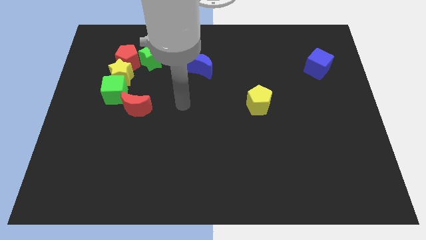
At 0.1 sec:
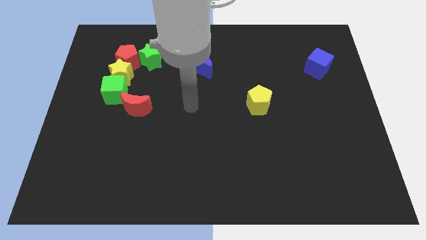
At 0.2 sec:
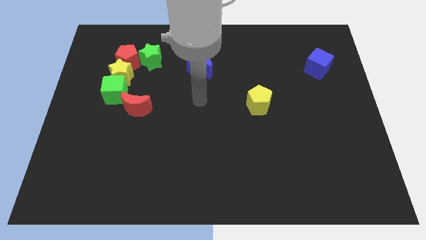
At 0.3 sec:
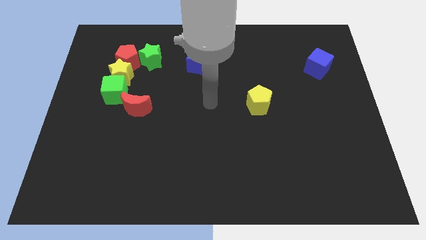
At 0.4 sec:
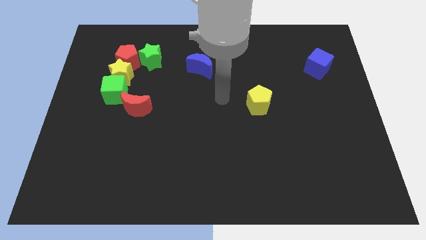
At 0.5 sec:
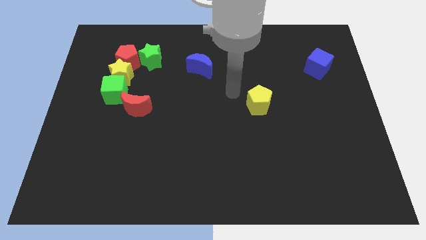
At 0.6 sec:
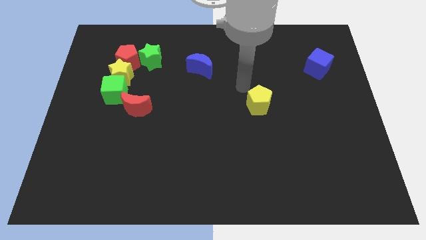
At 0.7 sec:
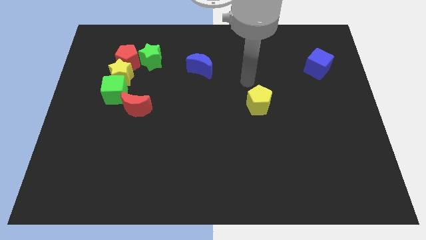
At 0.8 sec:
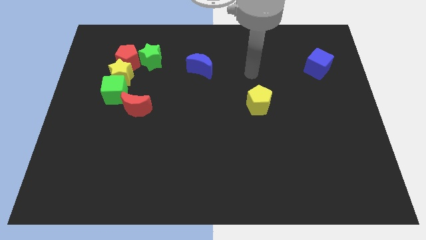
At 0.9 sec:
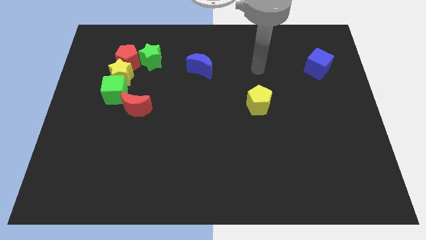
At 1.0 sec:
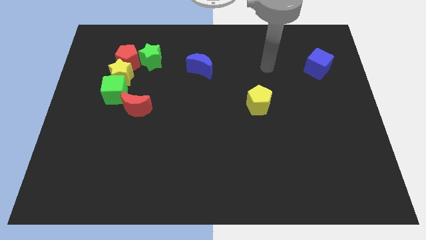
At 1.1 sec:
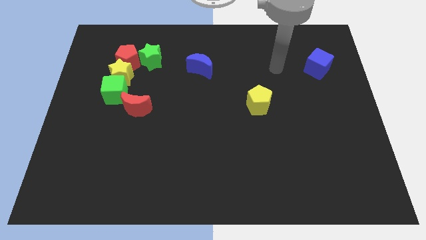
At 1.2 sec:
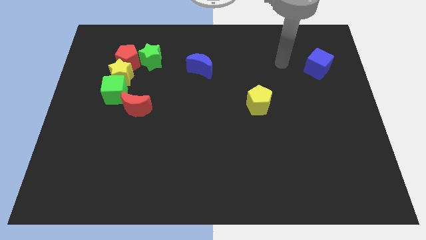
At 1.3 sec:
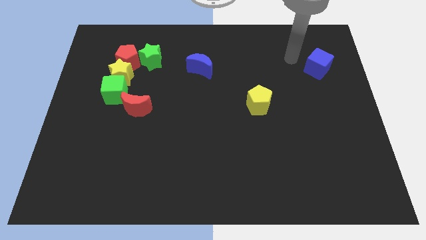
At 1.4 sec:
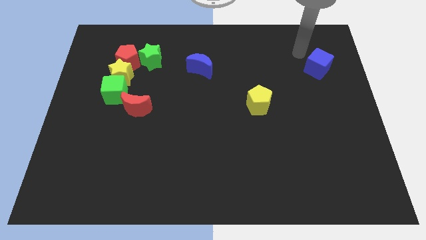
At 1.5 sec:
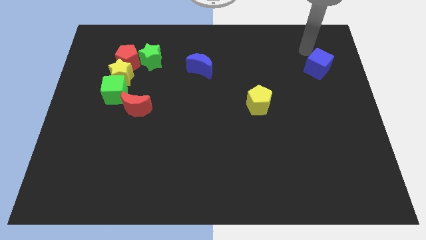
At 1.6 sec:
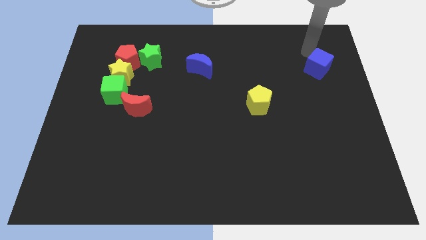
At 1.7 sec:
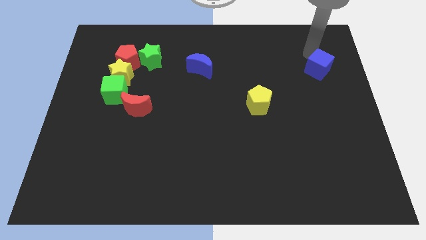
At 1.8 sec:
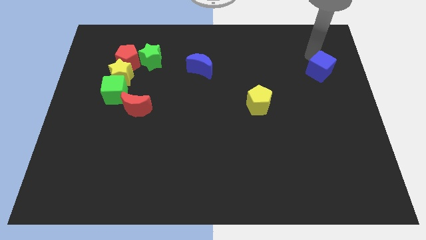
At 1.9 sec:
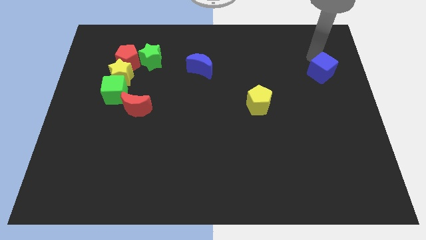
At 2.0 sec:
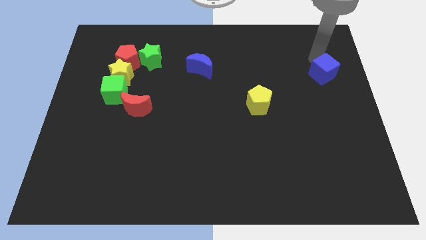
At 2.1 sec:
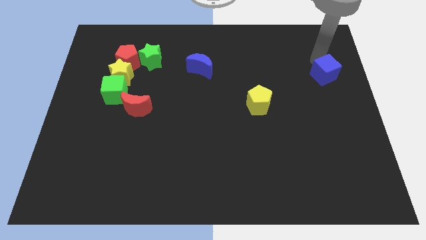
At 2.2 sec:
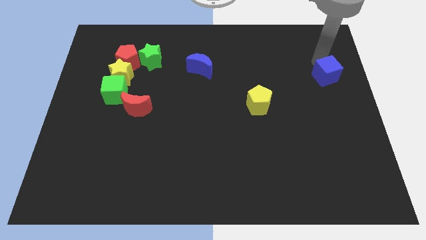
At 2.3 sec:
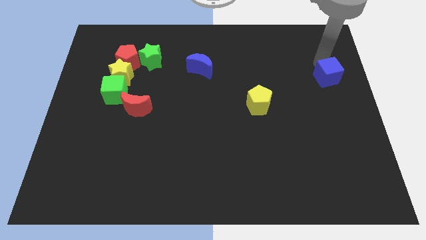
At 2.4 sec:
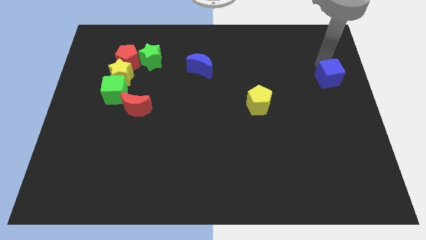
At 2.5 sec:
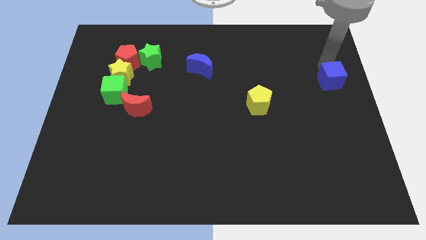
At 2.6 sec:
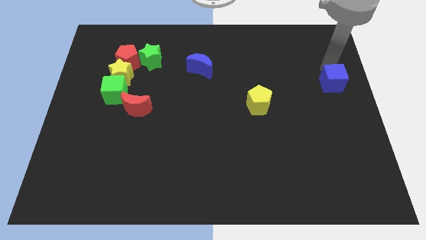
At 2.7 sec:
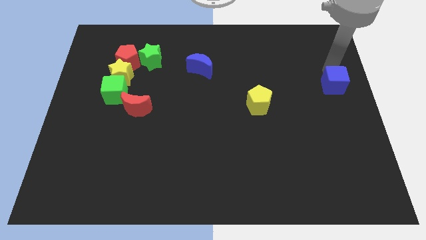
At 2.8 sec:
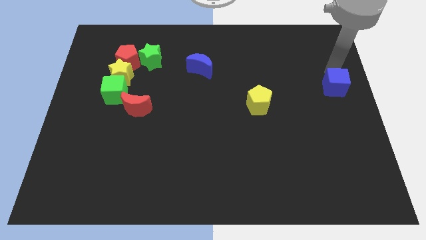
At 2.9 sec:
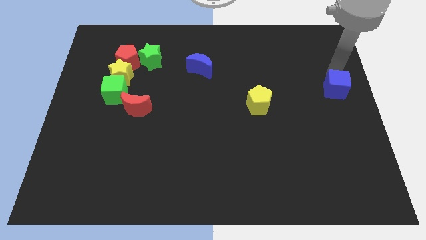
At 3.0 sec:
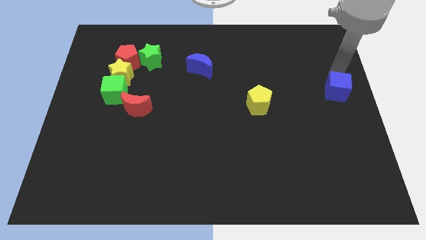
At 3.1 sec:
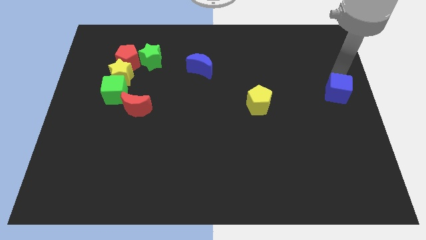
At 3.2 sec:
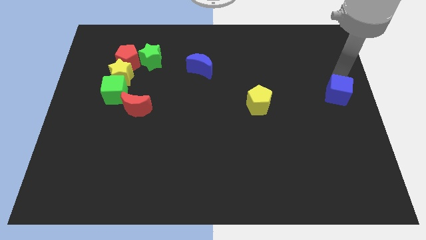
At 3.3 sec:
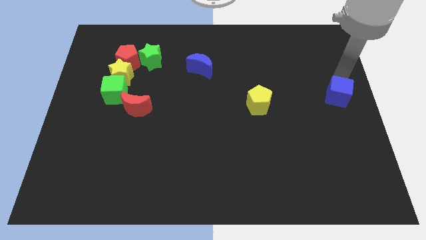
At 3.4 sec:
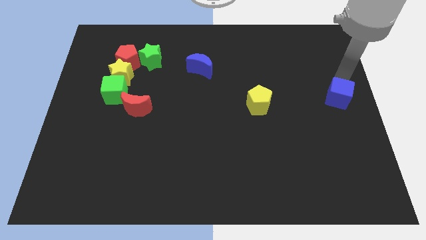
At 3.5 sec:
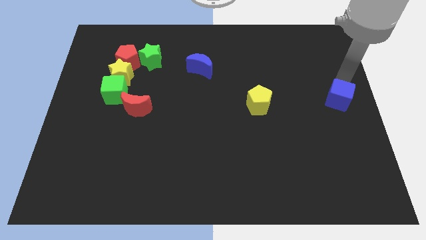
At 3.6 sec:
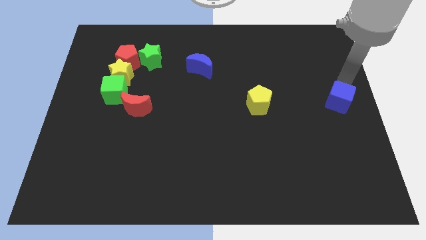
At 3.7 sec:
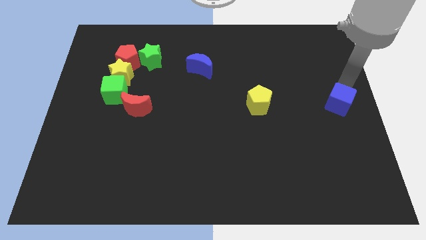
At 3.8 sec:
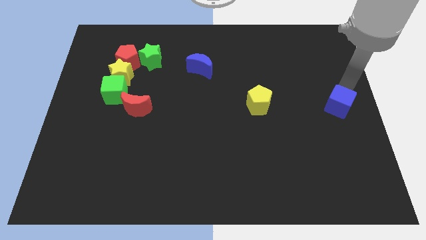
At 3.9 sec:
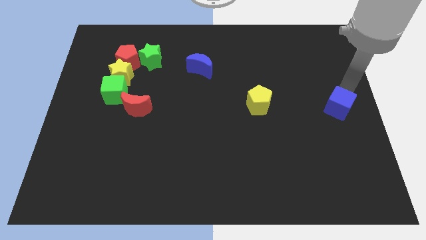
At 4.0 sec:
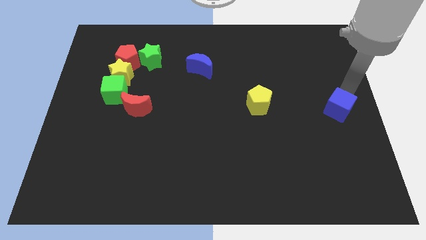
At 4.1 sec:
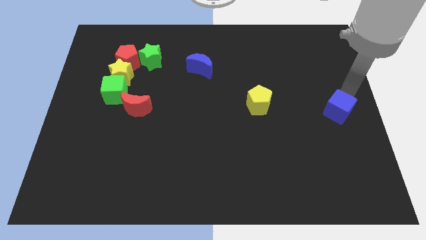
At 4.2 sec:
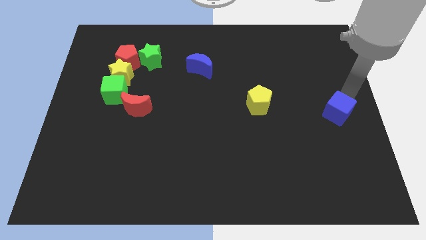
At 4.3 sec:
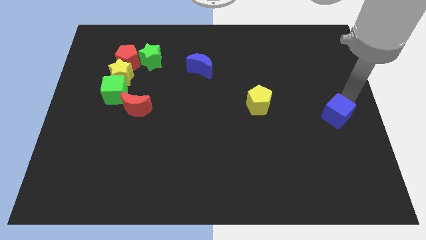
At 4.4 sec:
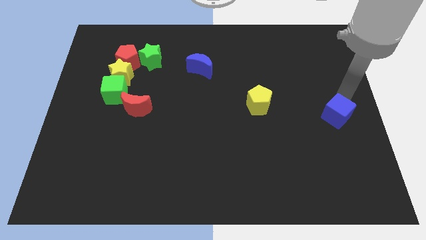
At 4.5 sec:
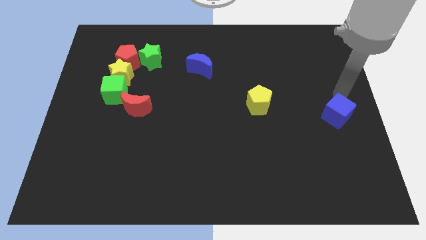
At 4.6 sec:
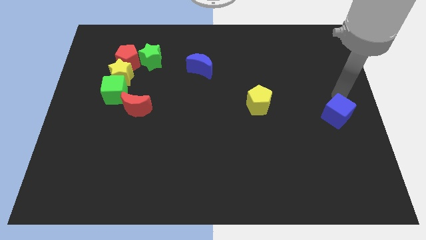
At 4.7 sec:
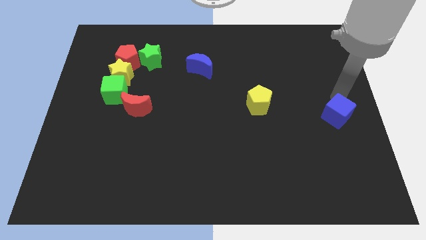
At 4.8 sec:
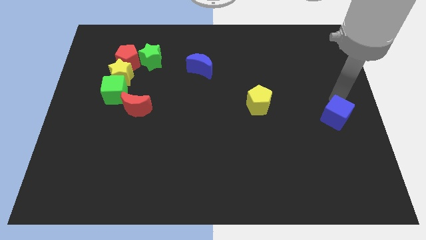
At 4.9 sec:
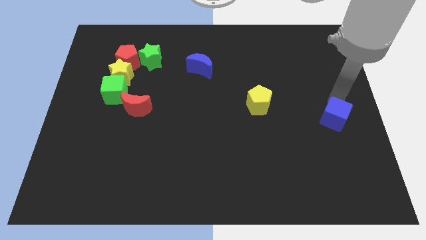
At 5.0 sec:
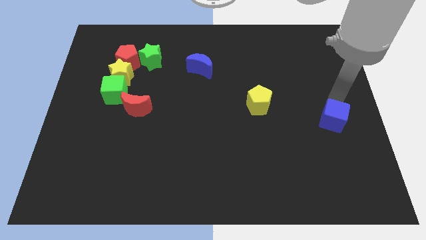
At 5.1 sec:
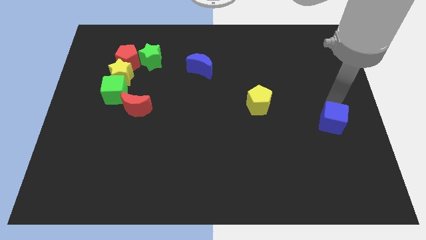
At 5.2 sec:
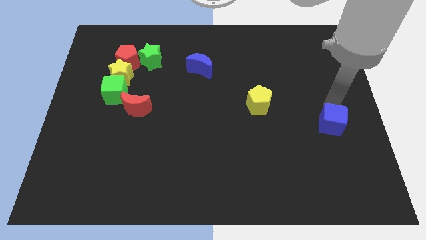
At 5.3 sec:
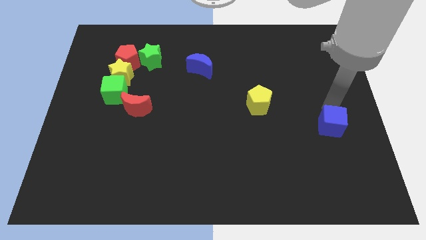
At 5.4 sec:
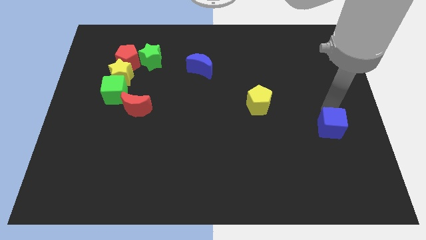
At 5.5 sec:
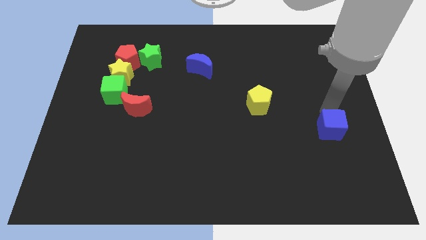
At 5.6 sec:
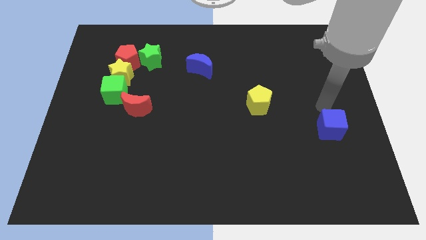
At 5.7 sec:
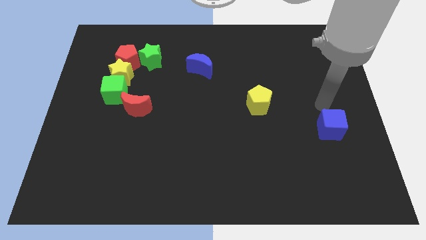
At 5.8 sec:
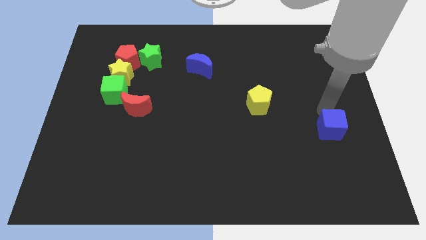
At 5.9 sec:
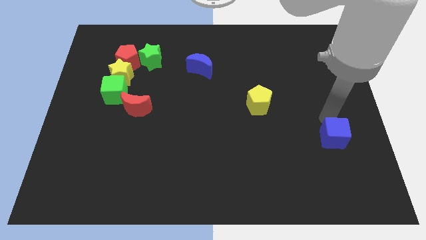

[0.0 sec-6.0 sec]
push the blue cube downwards

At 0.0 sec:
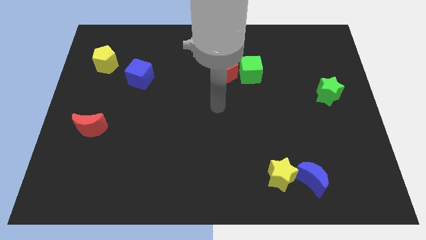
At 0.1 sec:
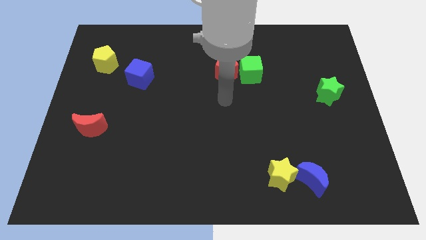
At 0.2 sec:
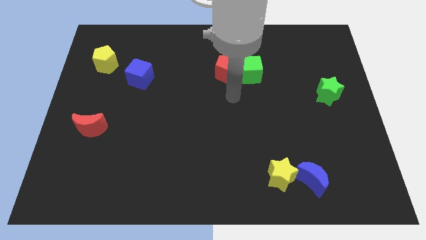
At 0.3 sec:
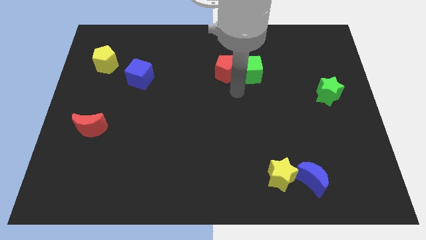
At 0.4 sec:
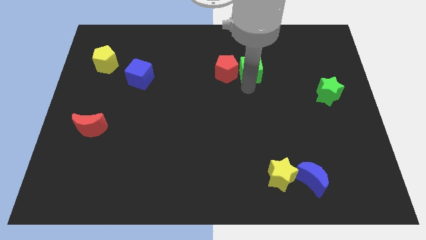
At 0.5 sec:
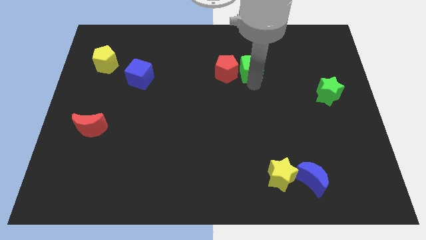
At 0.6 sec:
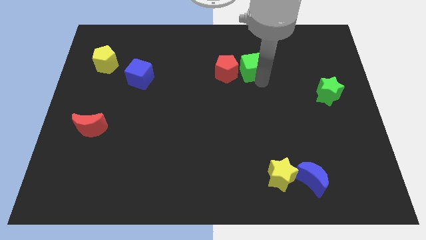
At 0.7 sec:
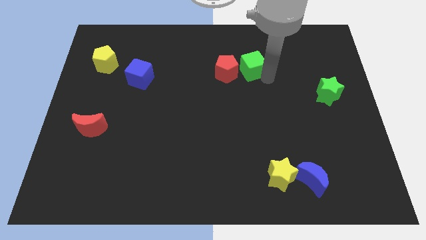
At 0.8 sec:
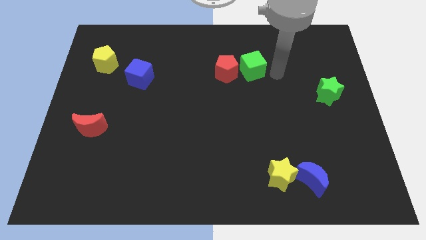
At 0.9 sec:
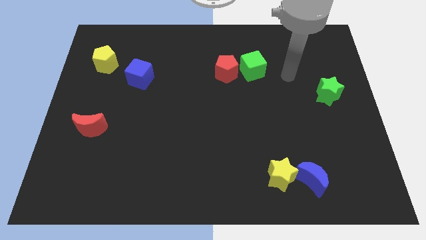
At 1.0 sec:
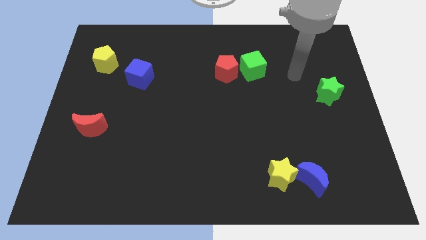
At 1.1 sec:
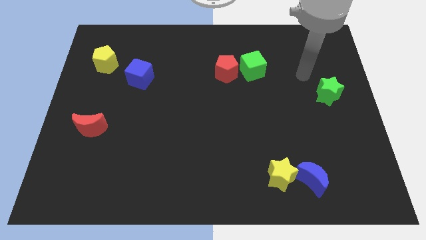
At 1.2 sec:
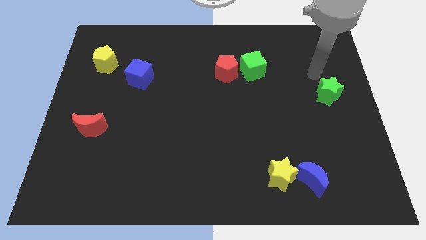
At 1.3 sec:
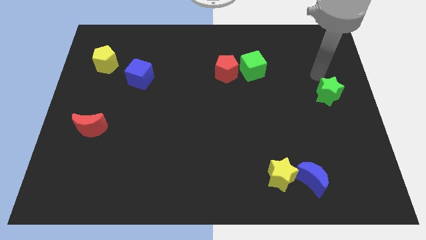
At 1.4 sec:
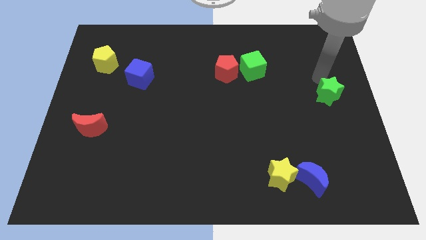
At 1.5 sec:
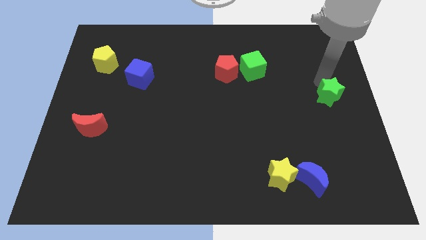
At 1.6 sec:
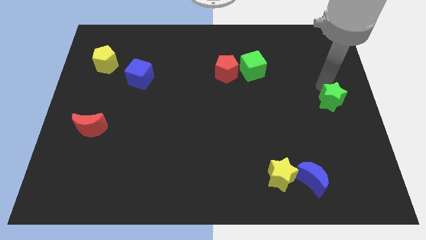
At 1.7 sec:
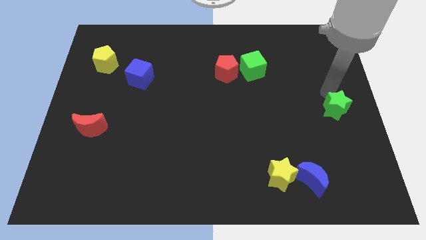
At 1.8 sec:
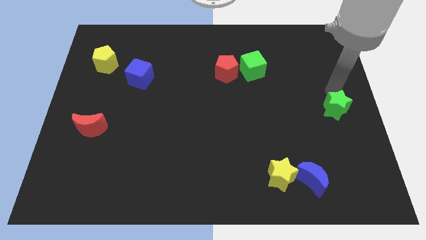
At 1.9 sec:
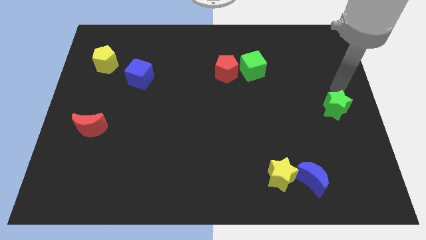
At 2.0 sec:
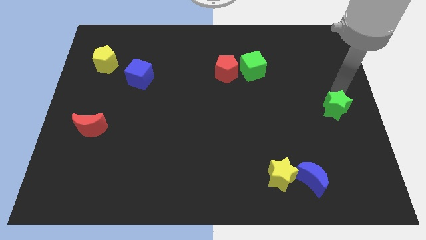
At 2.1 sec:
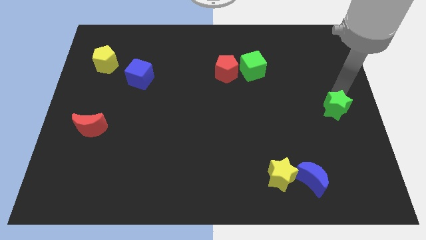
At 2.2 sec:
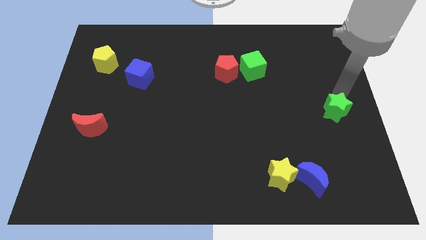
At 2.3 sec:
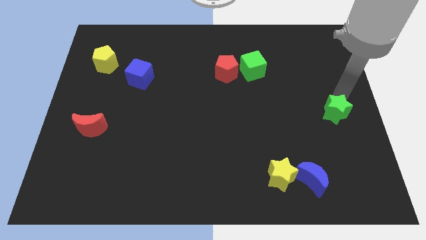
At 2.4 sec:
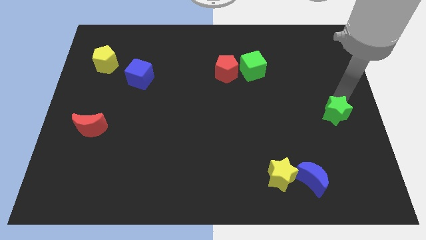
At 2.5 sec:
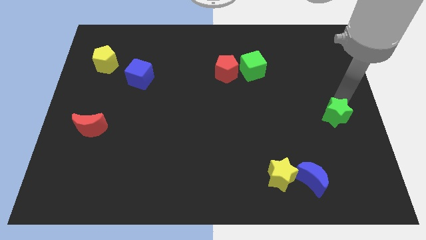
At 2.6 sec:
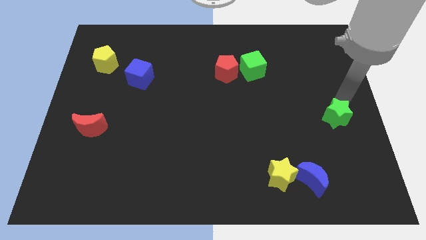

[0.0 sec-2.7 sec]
slightly move the green star down
